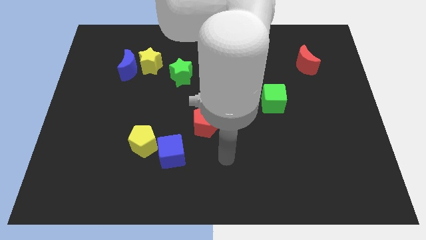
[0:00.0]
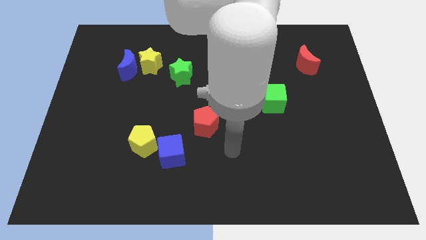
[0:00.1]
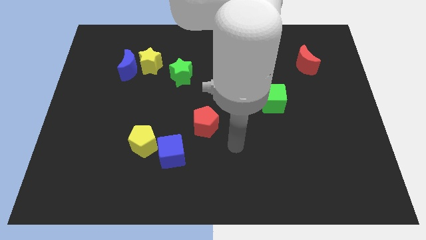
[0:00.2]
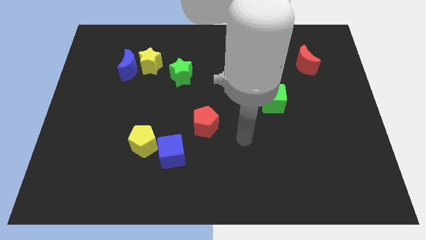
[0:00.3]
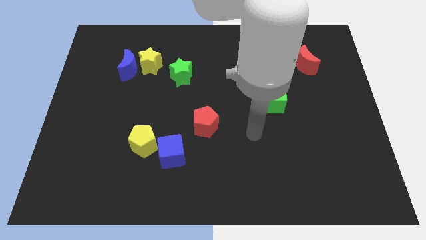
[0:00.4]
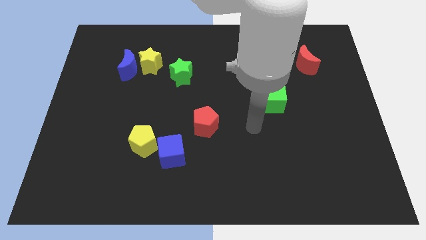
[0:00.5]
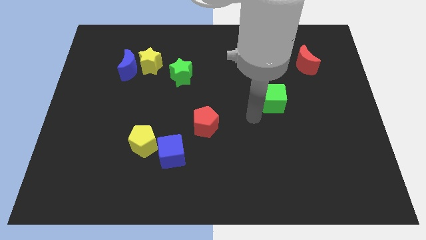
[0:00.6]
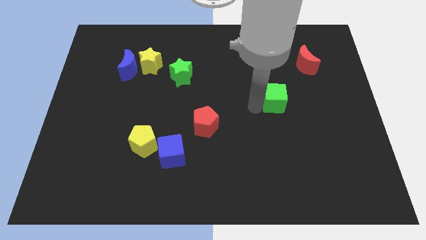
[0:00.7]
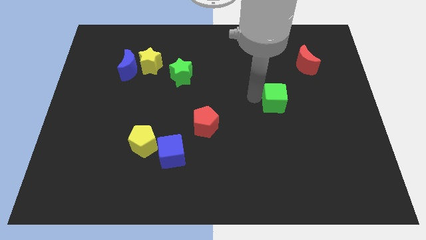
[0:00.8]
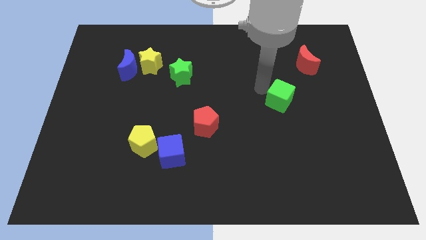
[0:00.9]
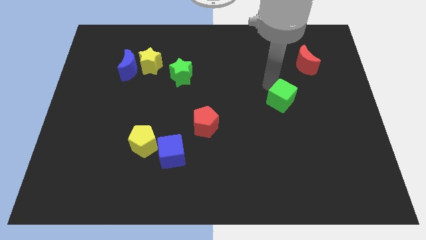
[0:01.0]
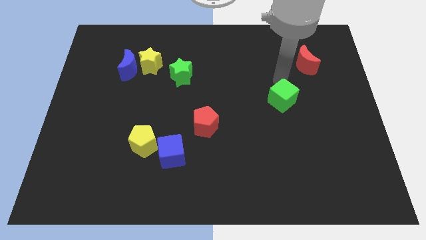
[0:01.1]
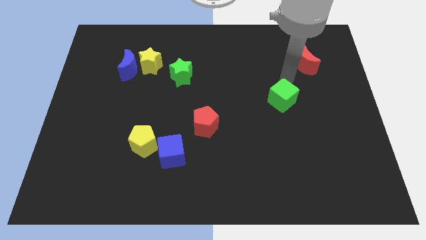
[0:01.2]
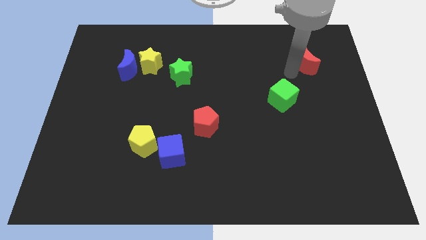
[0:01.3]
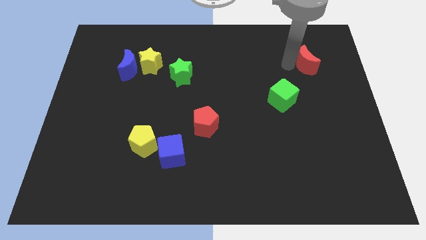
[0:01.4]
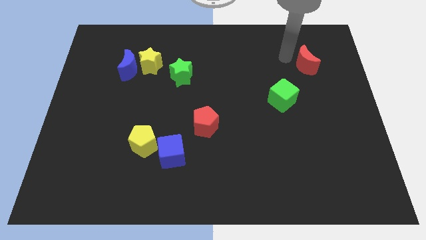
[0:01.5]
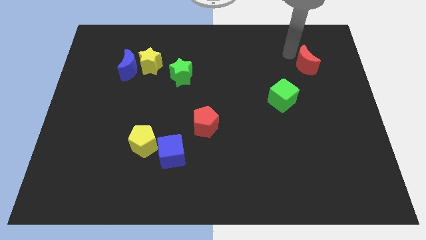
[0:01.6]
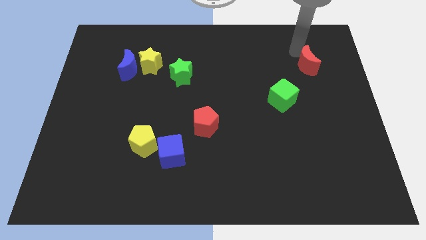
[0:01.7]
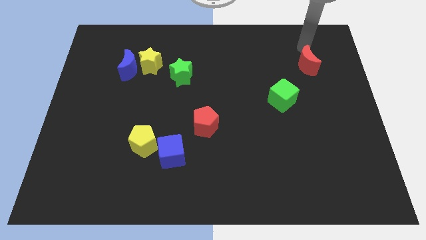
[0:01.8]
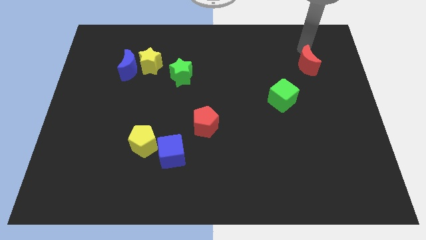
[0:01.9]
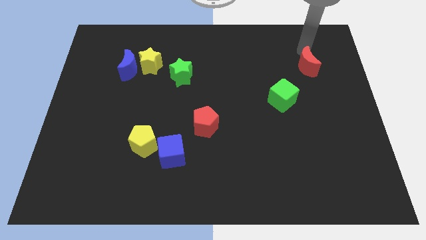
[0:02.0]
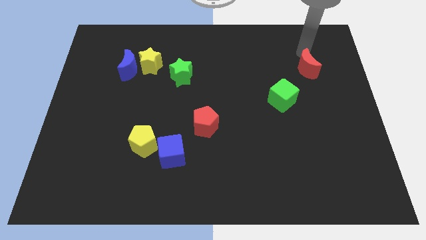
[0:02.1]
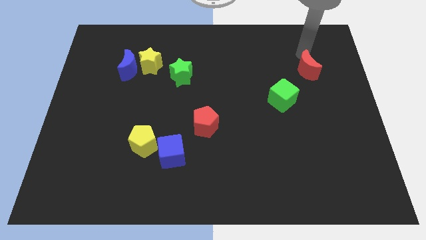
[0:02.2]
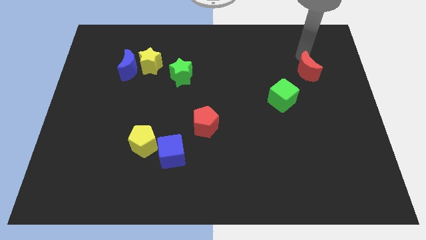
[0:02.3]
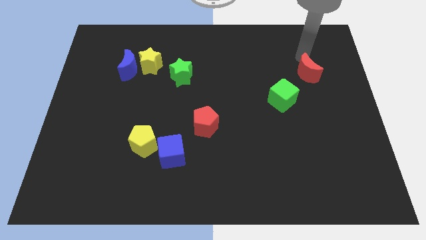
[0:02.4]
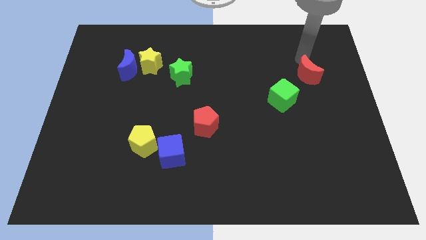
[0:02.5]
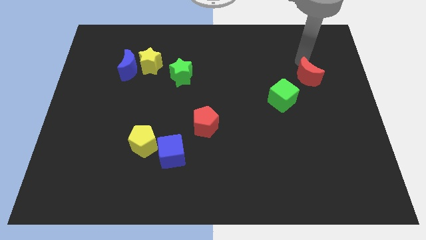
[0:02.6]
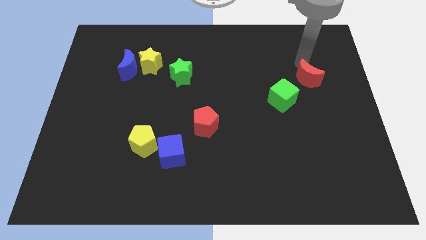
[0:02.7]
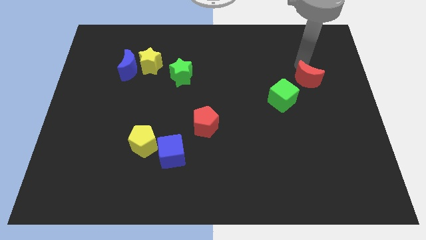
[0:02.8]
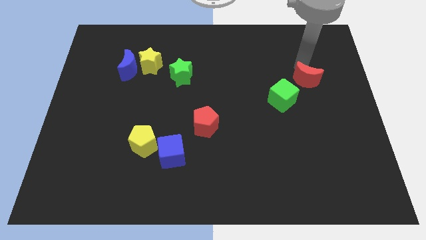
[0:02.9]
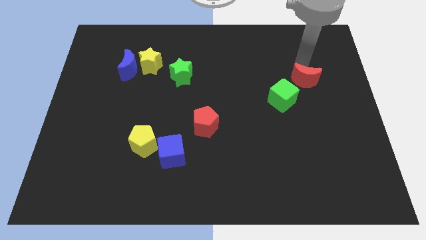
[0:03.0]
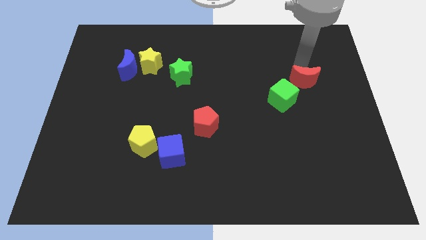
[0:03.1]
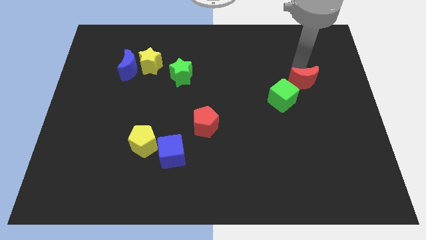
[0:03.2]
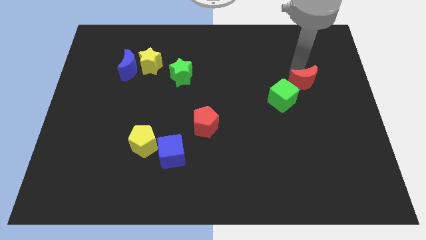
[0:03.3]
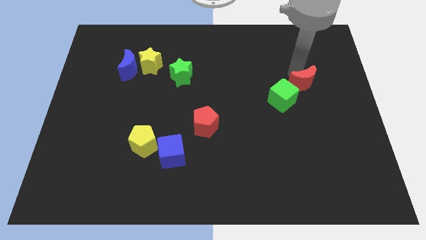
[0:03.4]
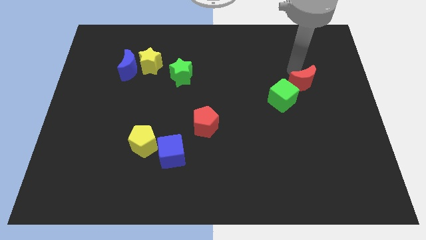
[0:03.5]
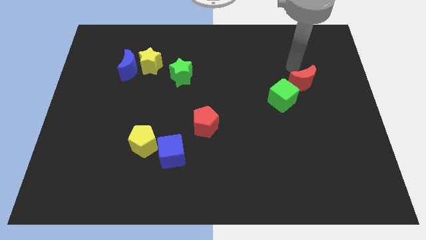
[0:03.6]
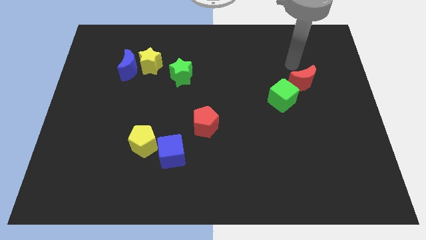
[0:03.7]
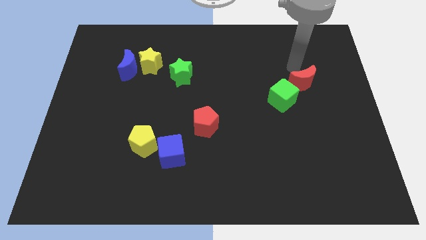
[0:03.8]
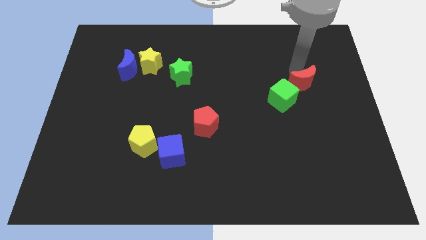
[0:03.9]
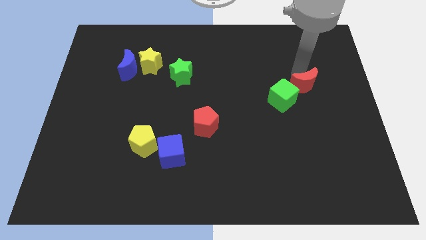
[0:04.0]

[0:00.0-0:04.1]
slightly push the red moon downwards

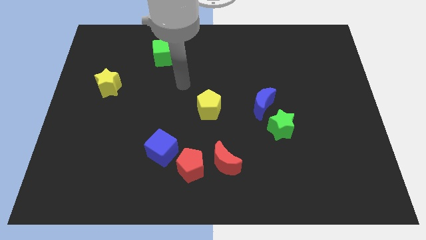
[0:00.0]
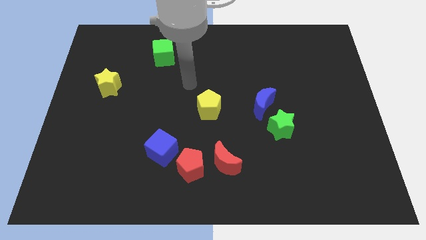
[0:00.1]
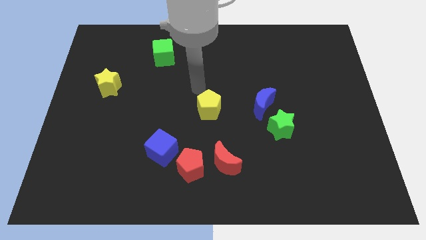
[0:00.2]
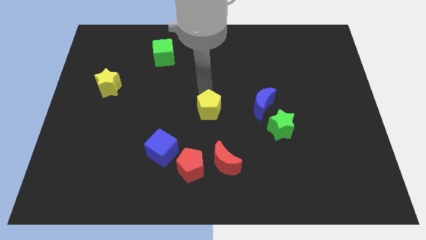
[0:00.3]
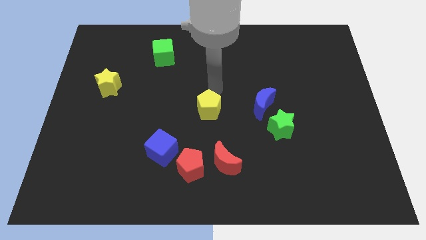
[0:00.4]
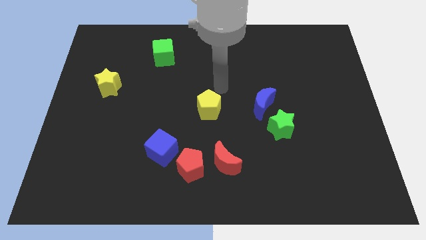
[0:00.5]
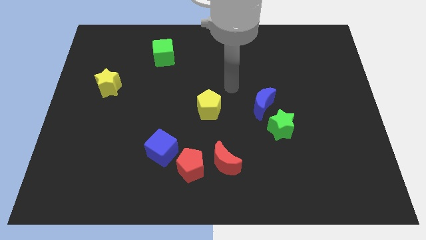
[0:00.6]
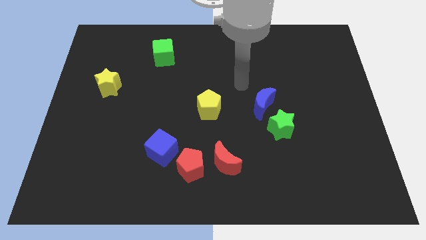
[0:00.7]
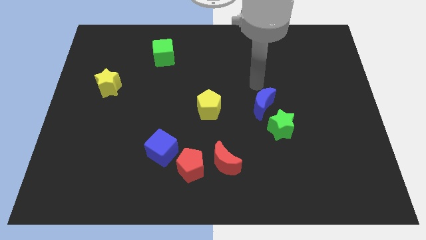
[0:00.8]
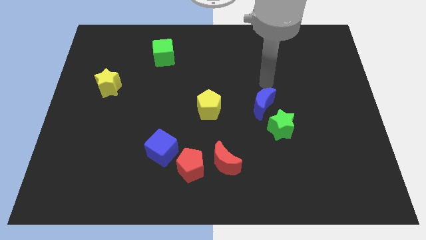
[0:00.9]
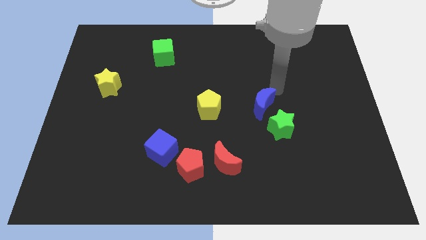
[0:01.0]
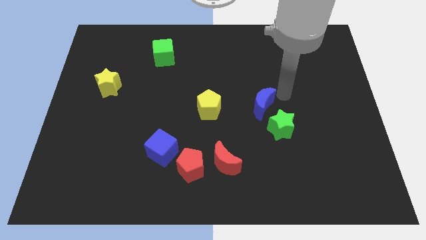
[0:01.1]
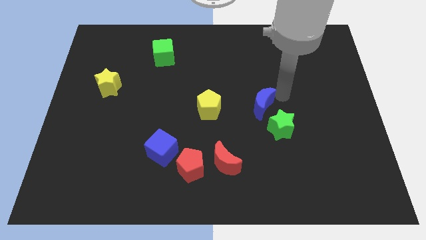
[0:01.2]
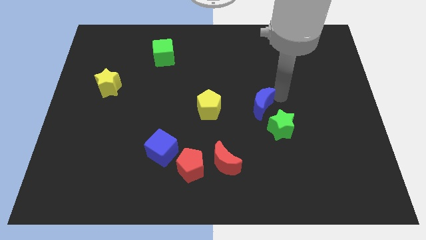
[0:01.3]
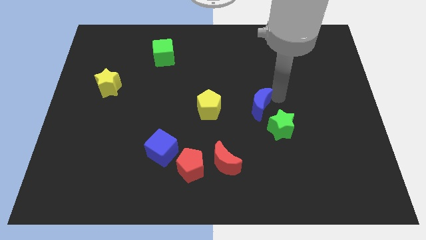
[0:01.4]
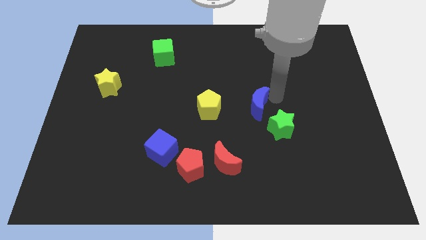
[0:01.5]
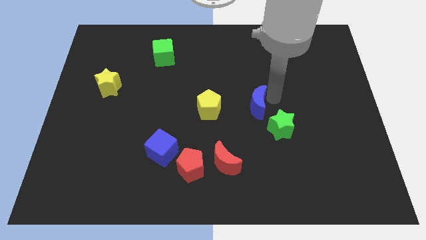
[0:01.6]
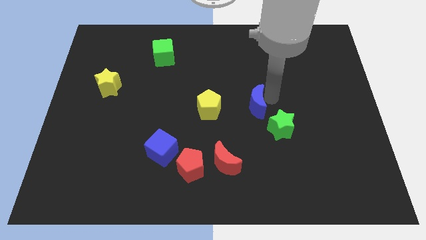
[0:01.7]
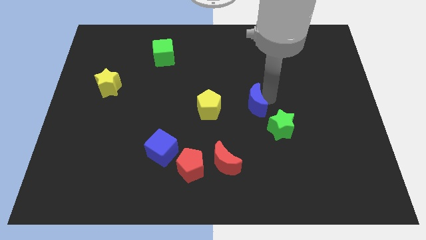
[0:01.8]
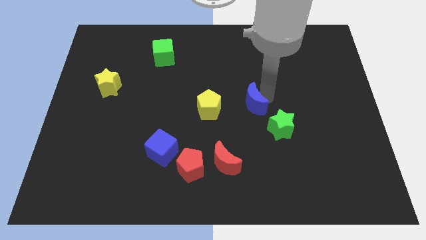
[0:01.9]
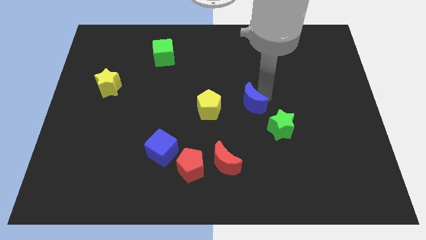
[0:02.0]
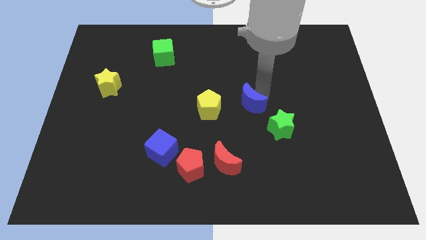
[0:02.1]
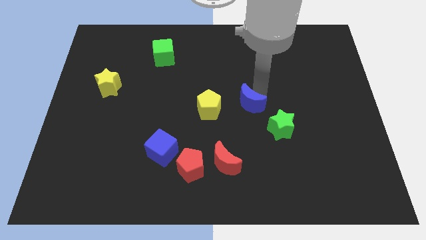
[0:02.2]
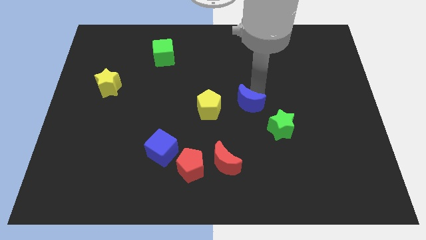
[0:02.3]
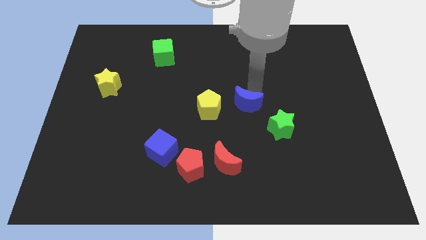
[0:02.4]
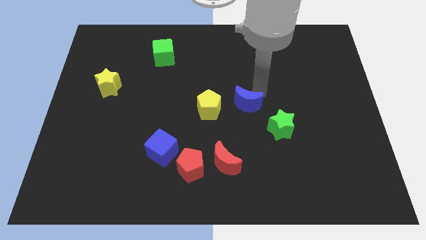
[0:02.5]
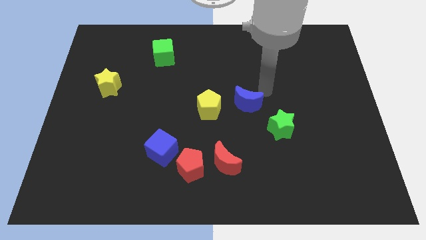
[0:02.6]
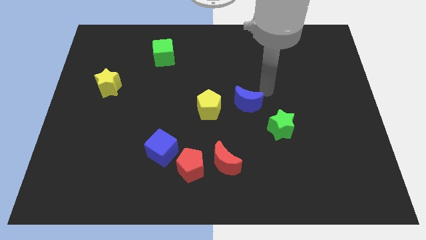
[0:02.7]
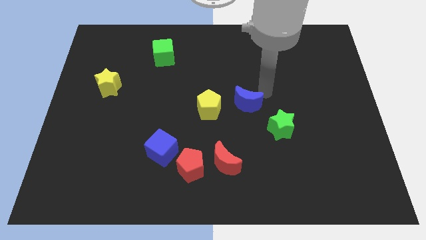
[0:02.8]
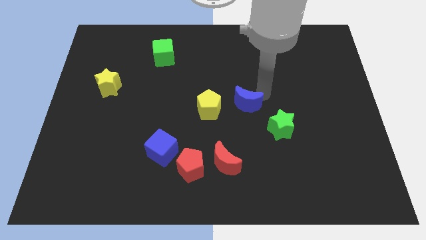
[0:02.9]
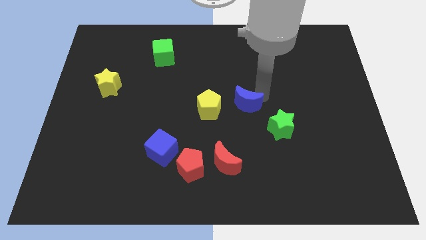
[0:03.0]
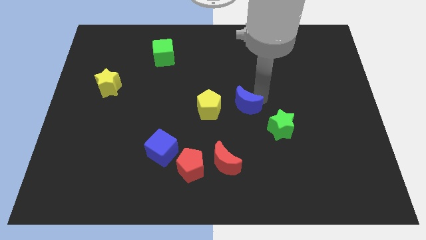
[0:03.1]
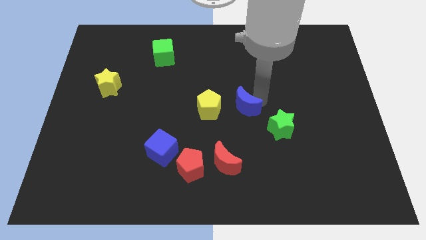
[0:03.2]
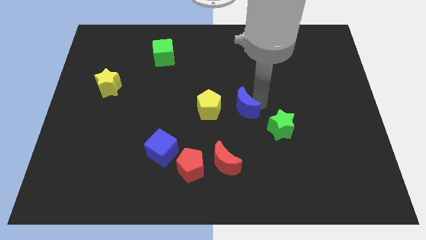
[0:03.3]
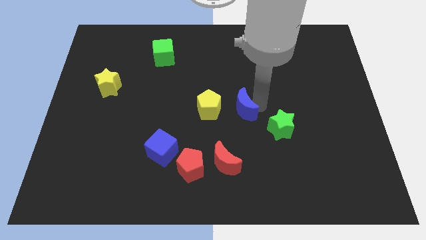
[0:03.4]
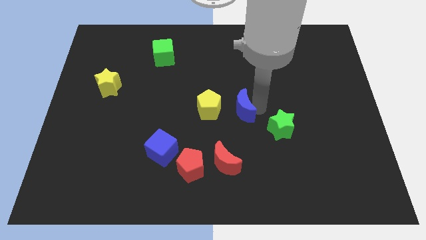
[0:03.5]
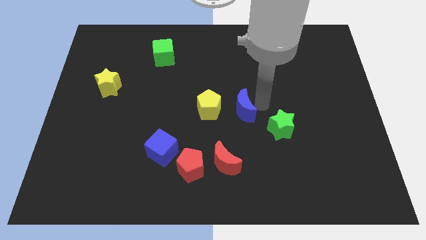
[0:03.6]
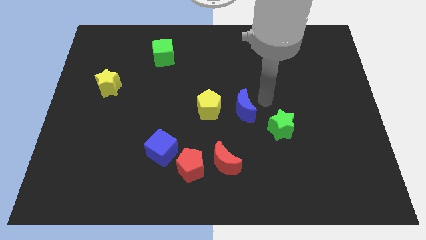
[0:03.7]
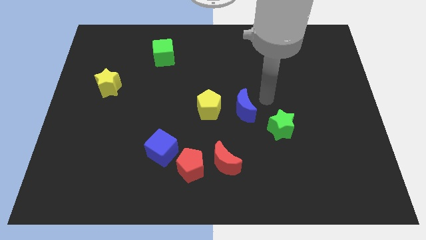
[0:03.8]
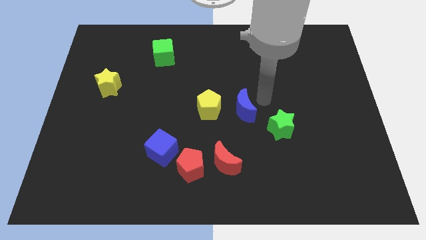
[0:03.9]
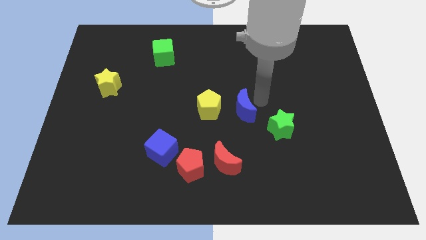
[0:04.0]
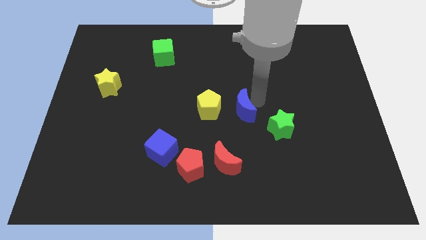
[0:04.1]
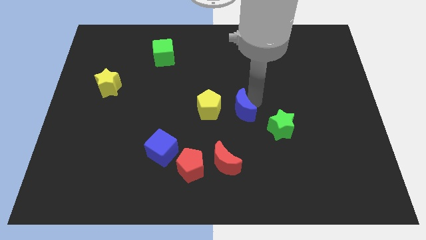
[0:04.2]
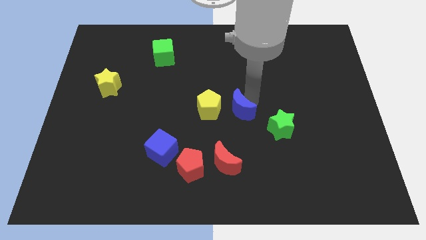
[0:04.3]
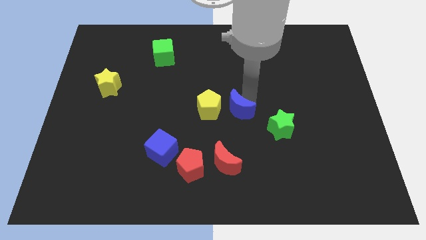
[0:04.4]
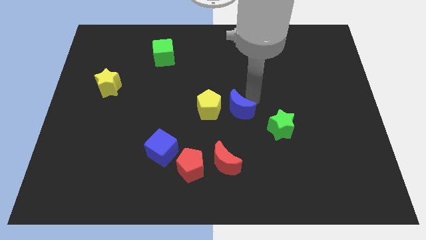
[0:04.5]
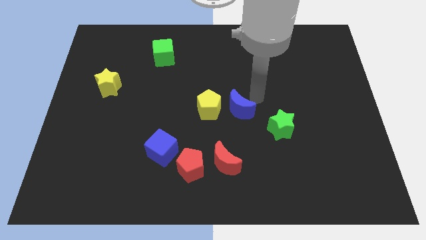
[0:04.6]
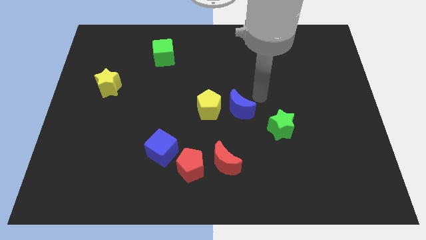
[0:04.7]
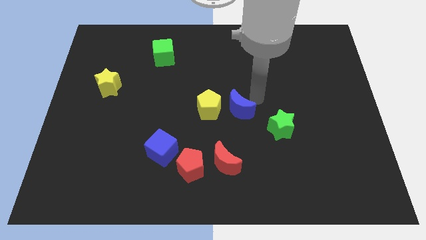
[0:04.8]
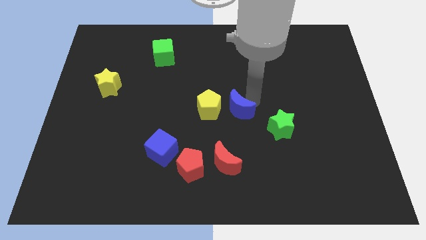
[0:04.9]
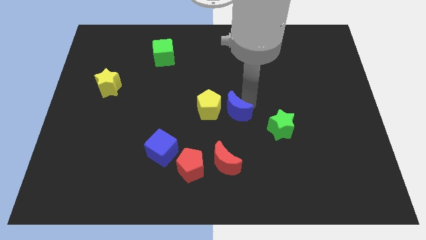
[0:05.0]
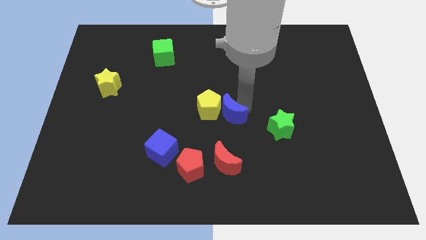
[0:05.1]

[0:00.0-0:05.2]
push the blue moon somewhat left
